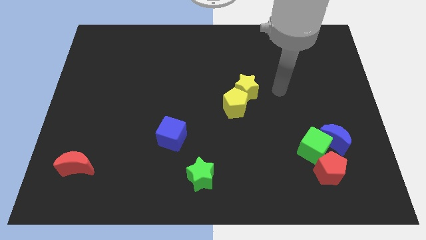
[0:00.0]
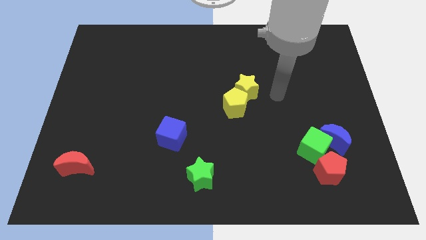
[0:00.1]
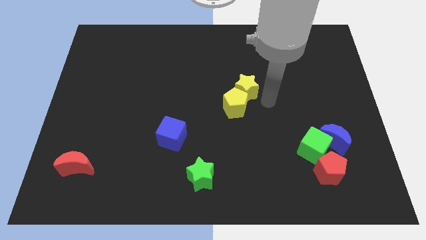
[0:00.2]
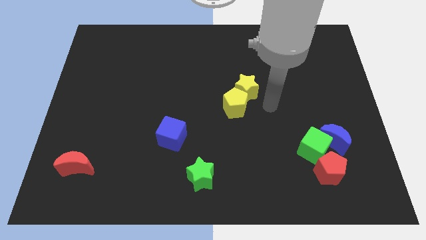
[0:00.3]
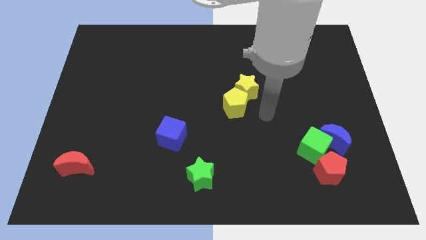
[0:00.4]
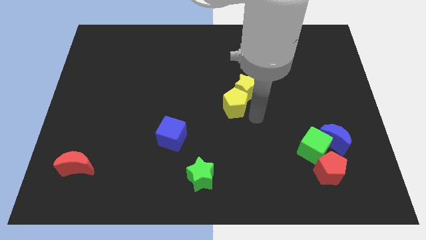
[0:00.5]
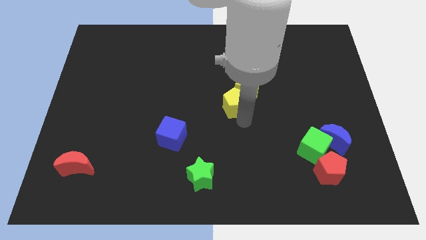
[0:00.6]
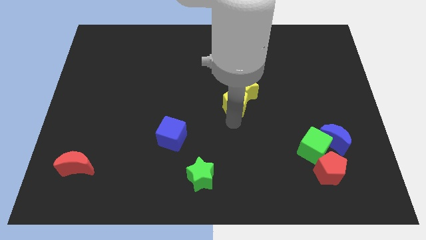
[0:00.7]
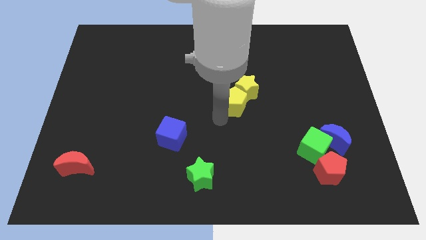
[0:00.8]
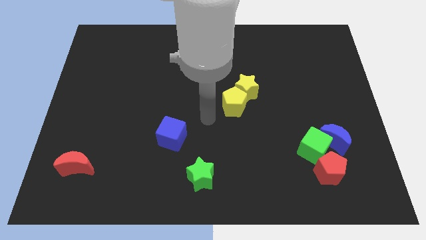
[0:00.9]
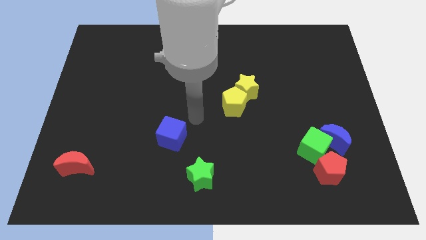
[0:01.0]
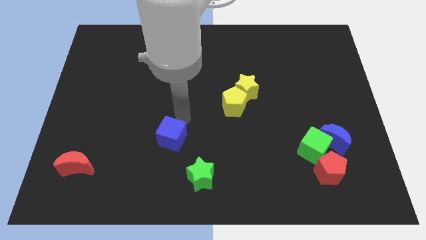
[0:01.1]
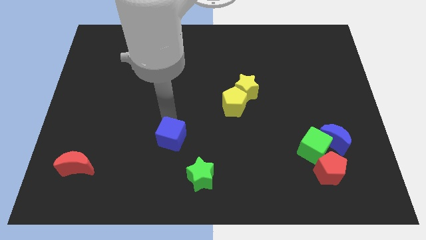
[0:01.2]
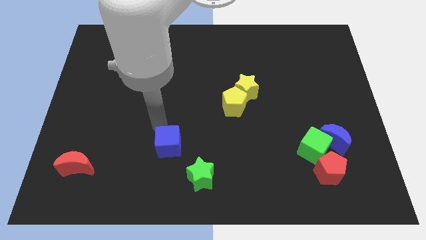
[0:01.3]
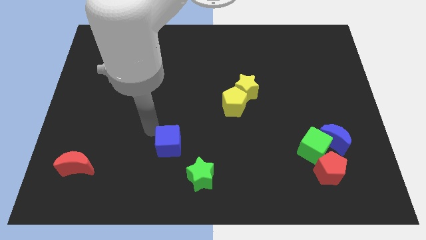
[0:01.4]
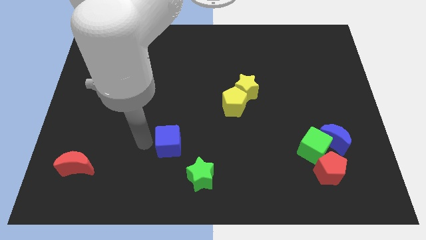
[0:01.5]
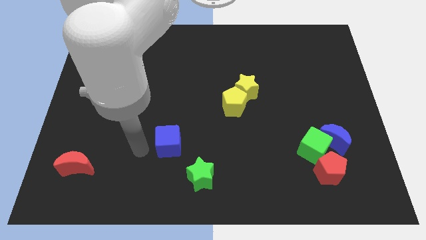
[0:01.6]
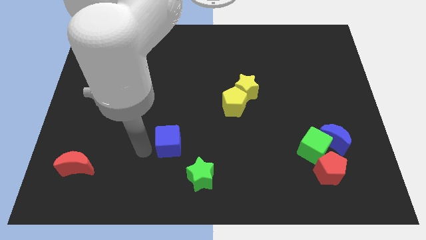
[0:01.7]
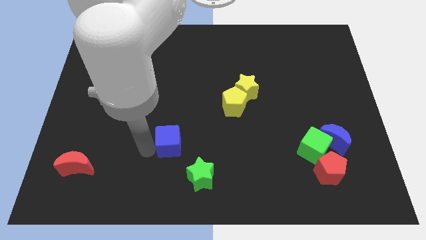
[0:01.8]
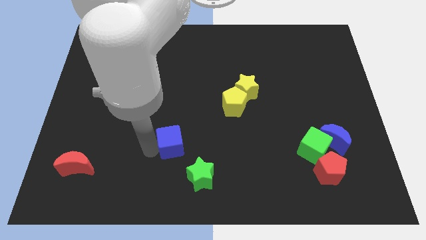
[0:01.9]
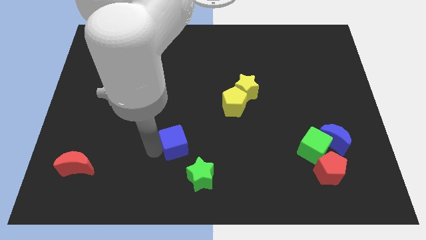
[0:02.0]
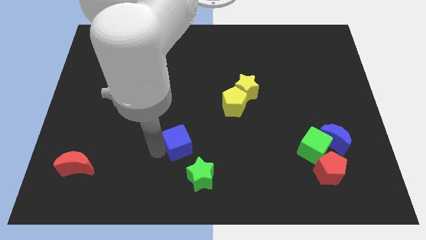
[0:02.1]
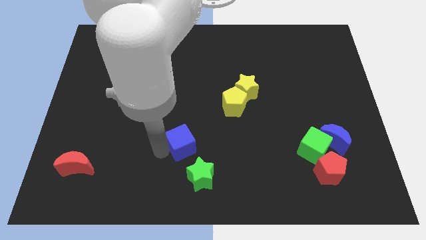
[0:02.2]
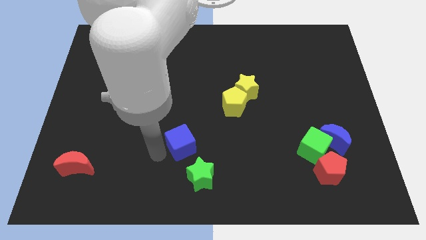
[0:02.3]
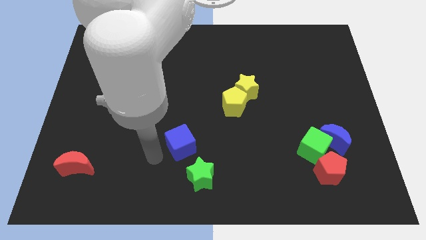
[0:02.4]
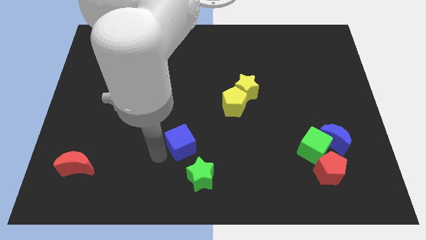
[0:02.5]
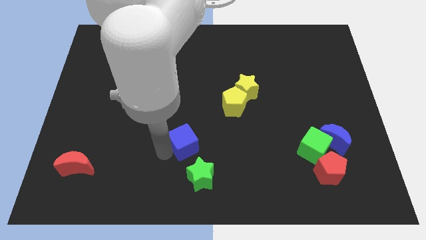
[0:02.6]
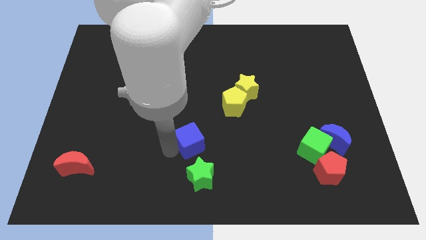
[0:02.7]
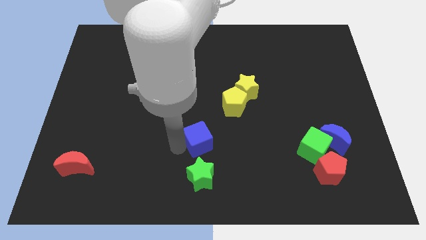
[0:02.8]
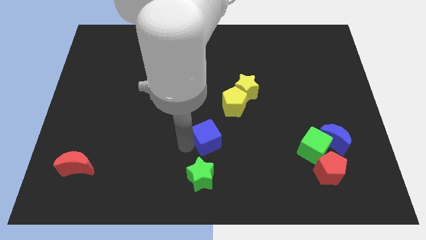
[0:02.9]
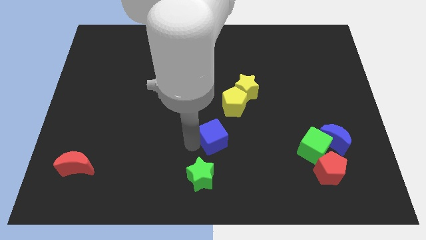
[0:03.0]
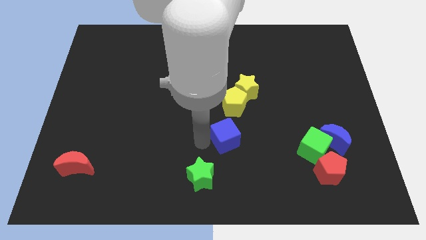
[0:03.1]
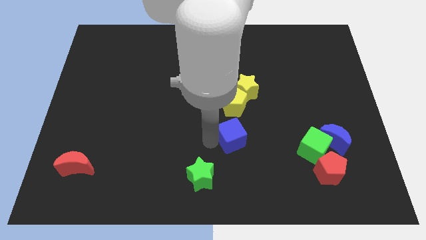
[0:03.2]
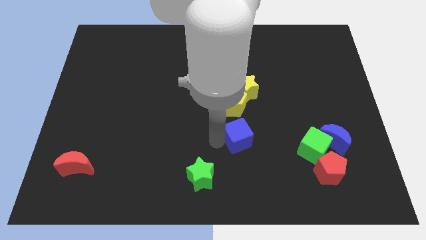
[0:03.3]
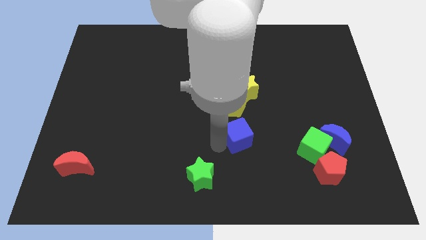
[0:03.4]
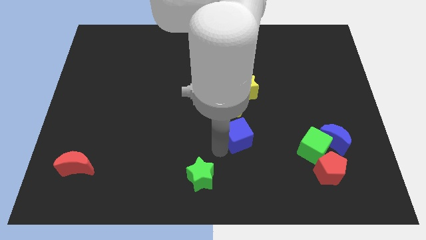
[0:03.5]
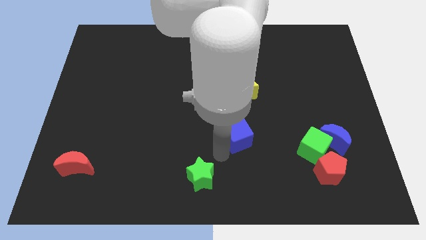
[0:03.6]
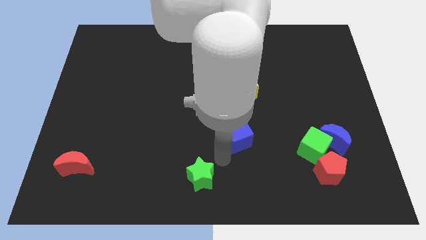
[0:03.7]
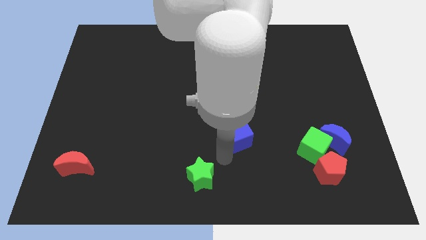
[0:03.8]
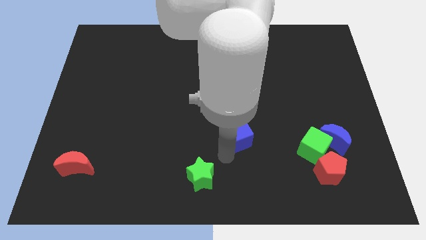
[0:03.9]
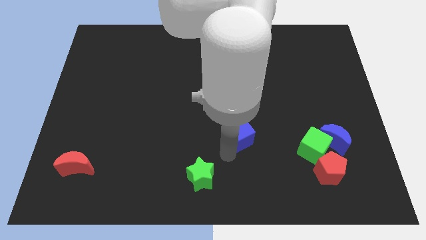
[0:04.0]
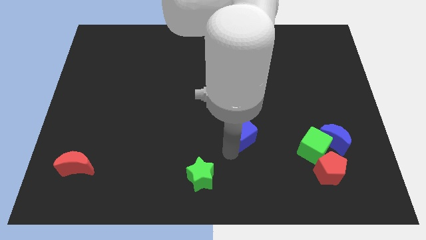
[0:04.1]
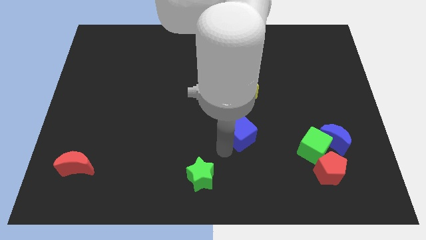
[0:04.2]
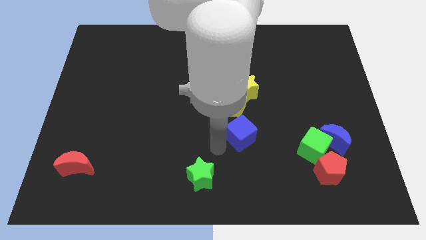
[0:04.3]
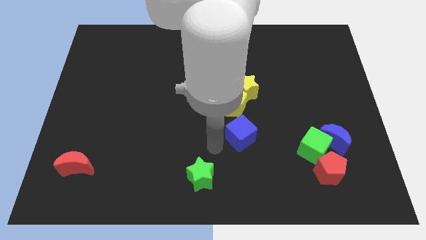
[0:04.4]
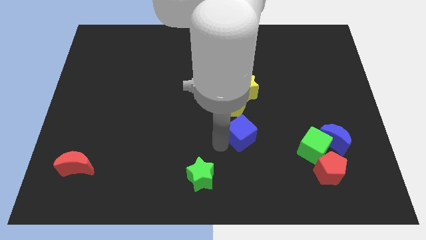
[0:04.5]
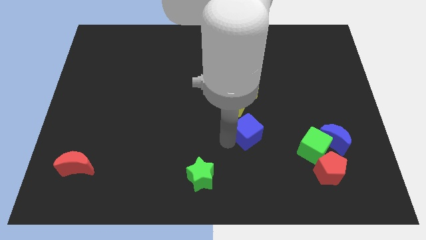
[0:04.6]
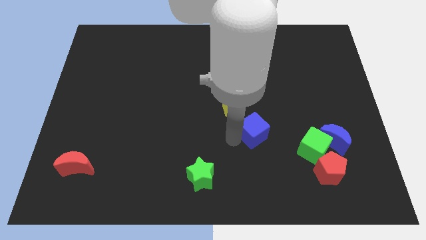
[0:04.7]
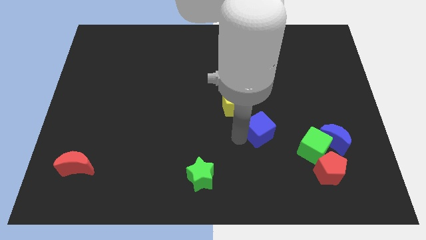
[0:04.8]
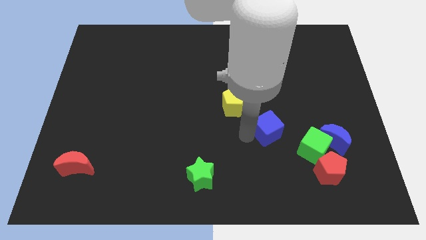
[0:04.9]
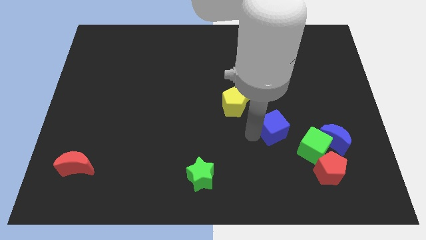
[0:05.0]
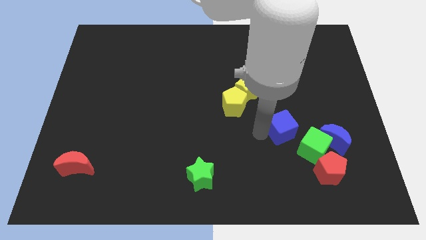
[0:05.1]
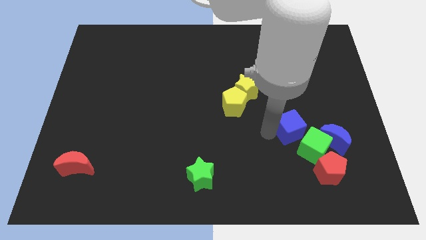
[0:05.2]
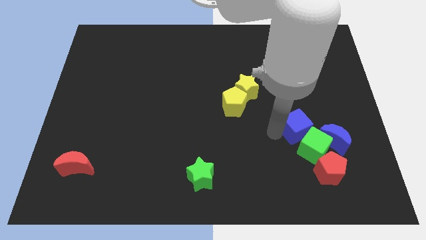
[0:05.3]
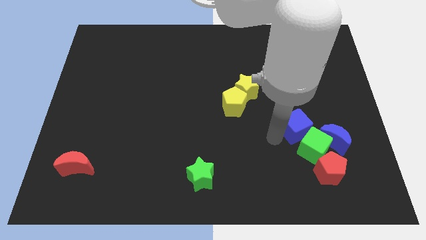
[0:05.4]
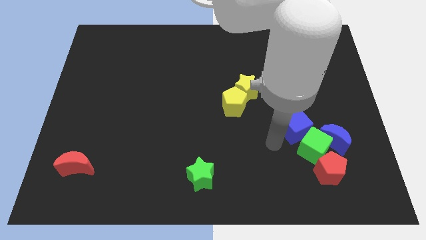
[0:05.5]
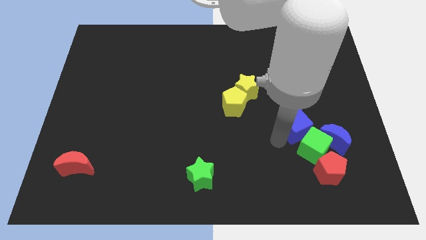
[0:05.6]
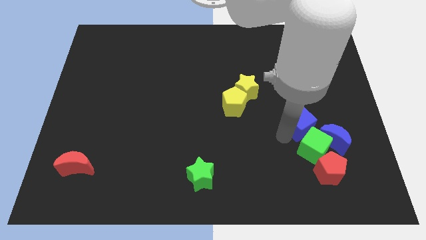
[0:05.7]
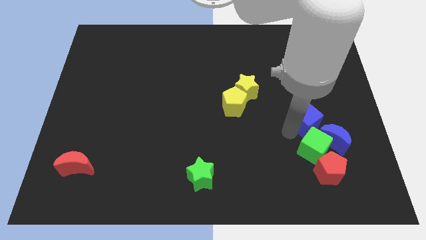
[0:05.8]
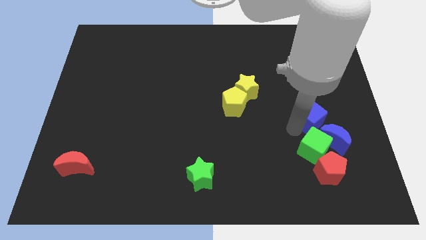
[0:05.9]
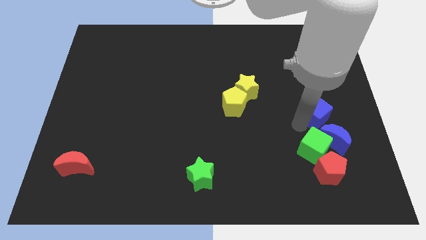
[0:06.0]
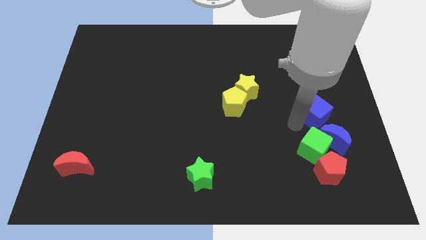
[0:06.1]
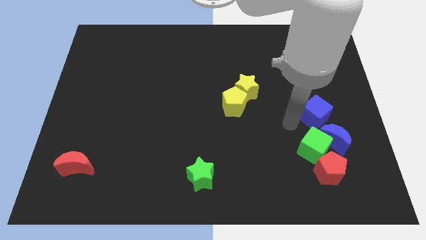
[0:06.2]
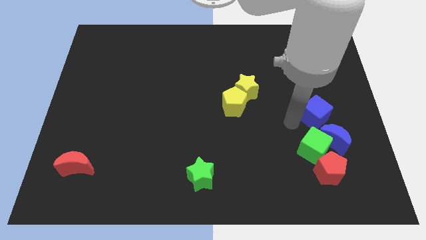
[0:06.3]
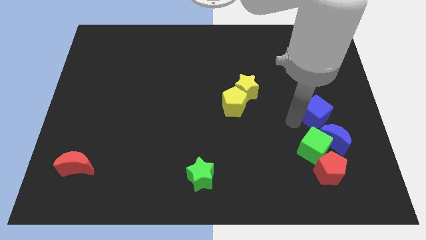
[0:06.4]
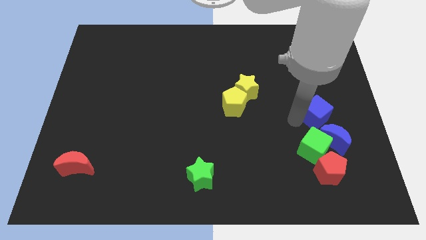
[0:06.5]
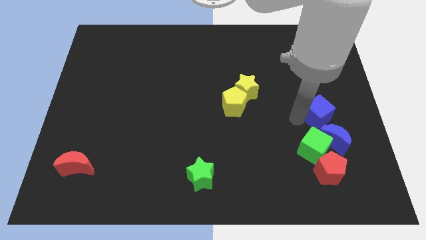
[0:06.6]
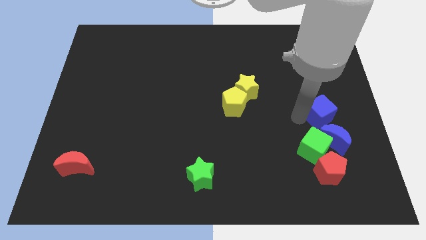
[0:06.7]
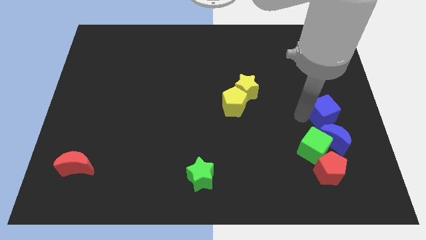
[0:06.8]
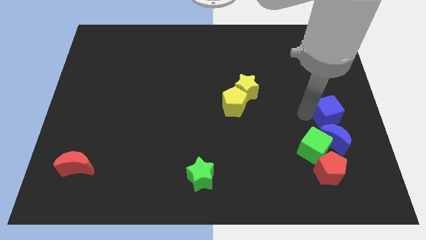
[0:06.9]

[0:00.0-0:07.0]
slide the blue cube to the center right

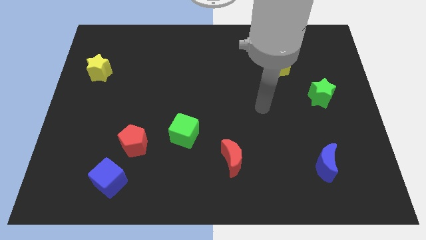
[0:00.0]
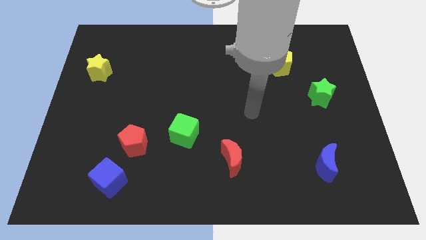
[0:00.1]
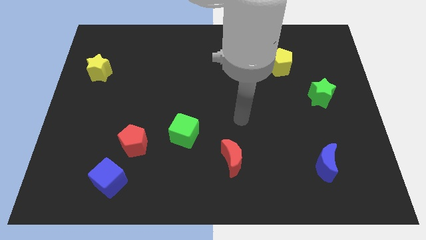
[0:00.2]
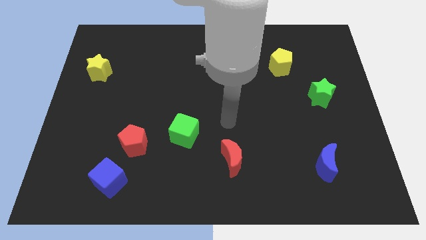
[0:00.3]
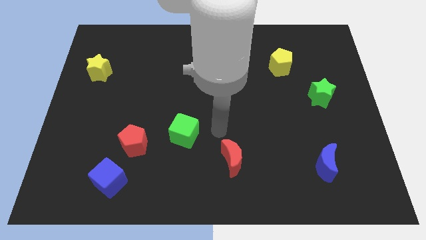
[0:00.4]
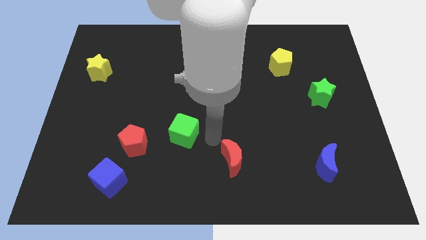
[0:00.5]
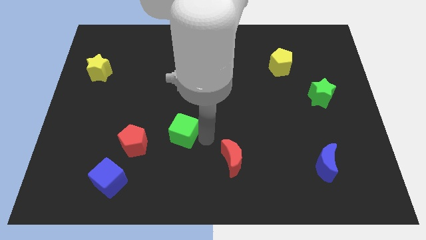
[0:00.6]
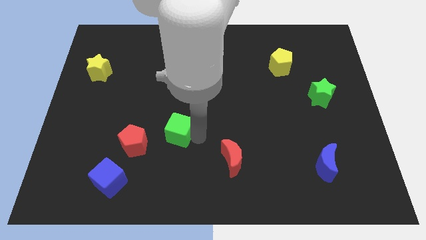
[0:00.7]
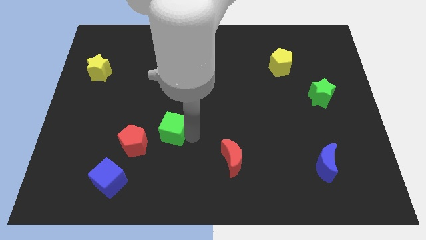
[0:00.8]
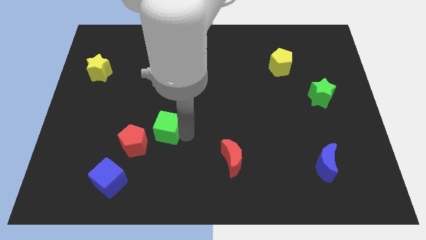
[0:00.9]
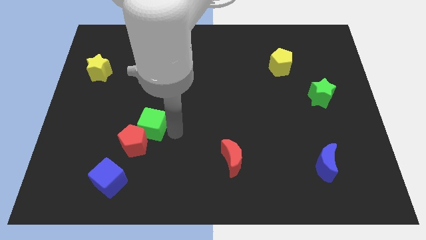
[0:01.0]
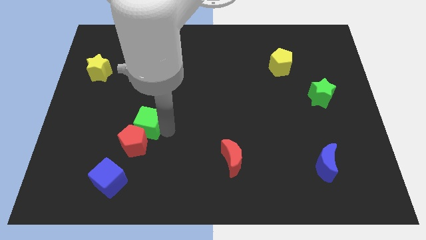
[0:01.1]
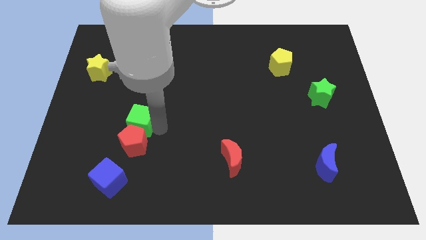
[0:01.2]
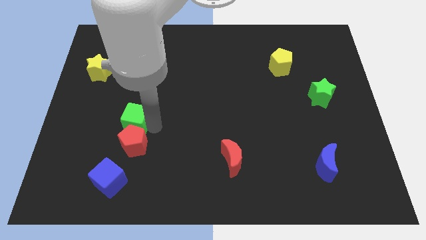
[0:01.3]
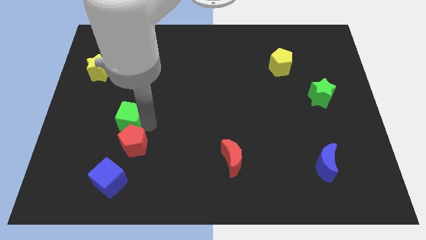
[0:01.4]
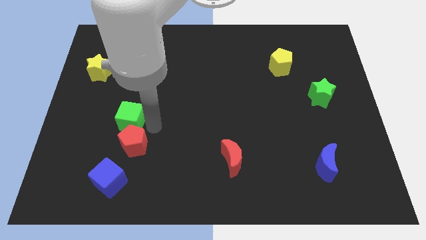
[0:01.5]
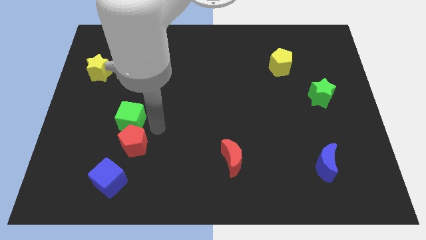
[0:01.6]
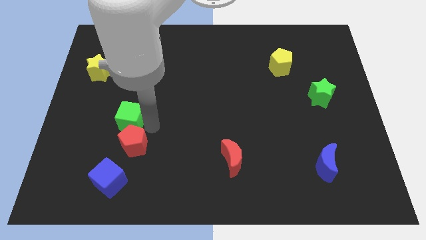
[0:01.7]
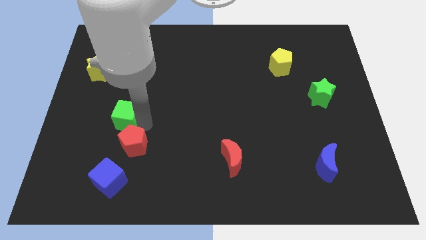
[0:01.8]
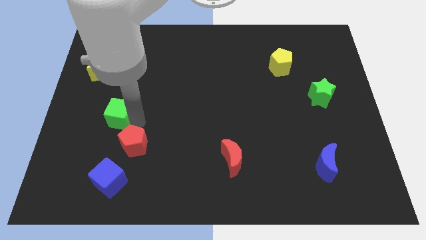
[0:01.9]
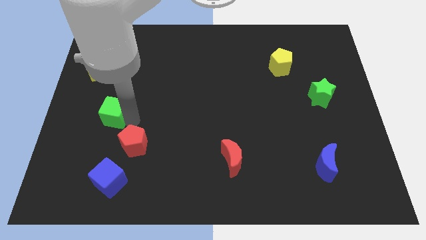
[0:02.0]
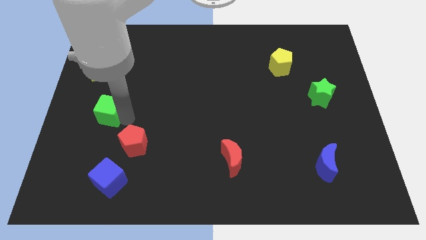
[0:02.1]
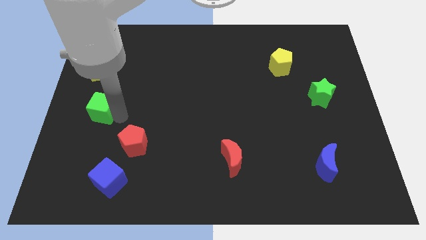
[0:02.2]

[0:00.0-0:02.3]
move the green cube to the center left
